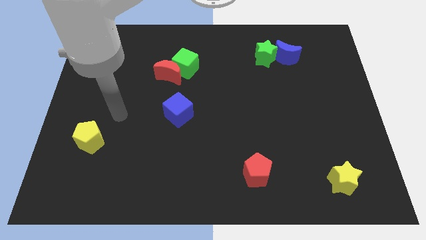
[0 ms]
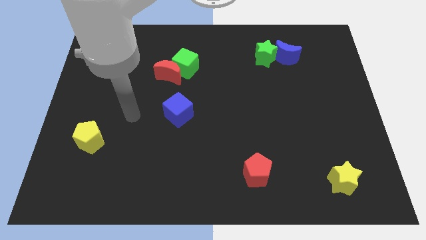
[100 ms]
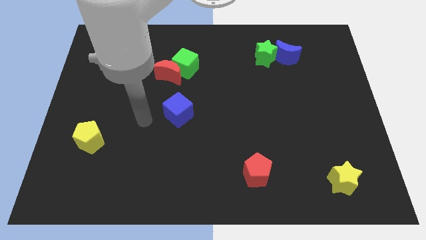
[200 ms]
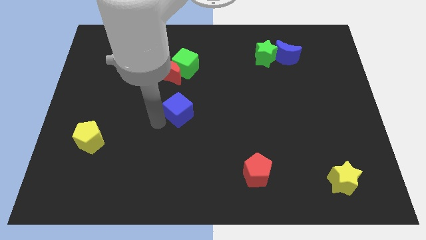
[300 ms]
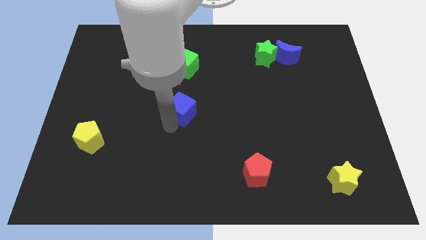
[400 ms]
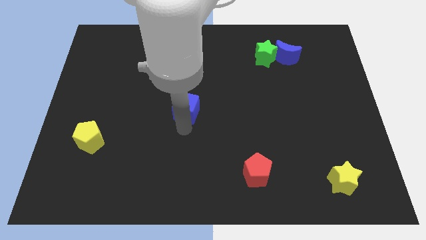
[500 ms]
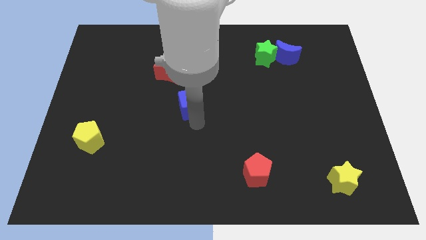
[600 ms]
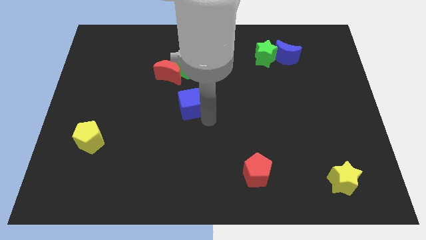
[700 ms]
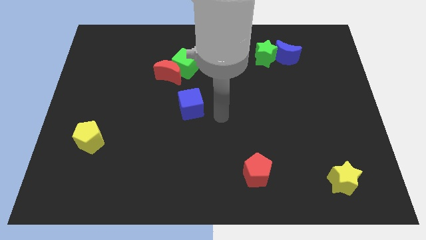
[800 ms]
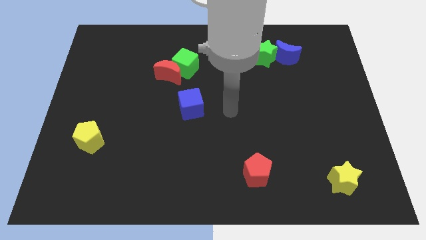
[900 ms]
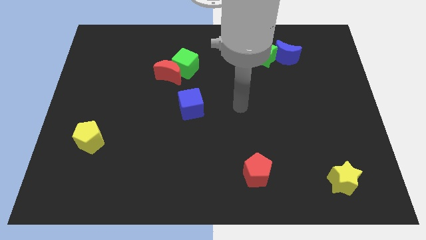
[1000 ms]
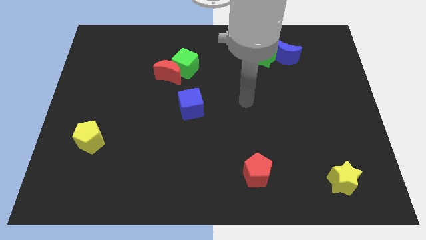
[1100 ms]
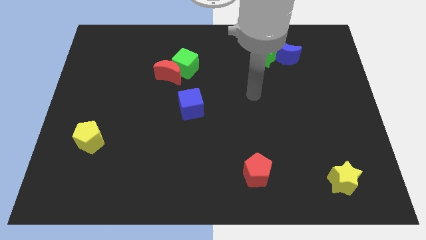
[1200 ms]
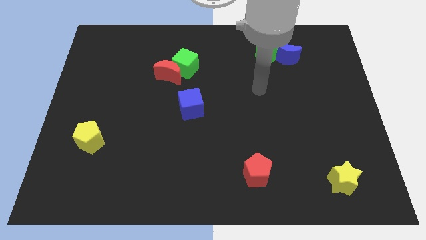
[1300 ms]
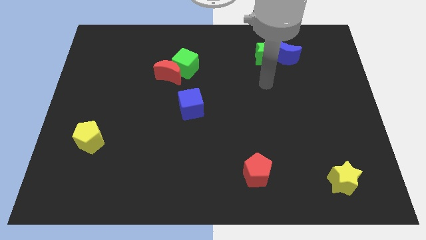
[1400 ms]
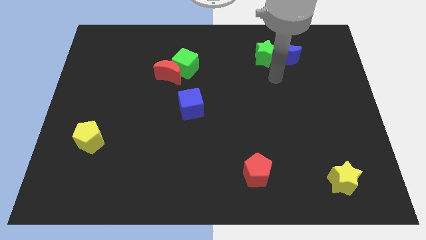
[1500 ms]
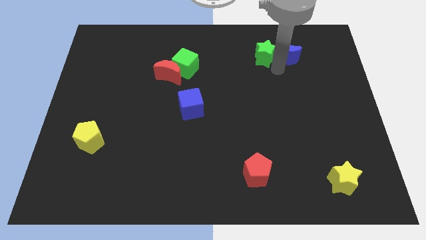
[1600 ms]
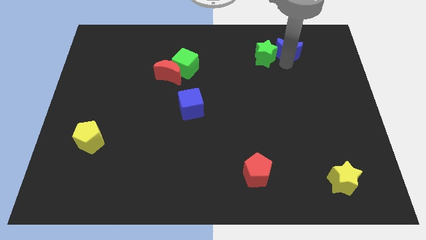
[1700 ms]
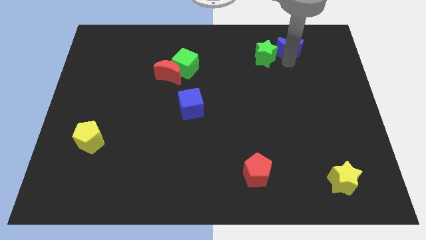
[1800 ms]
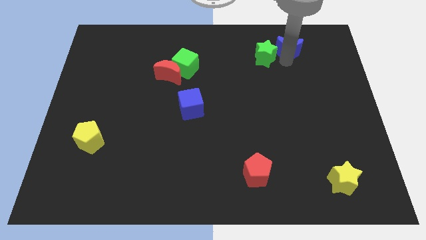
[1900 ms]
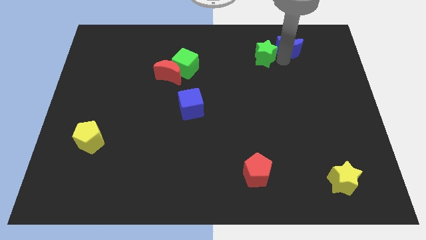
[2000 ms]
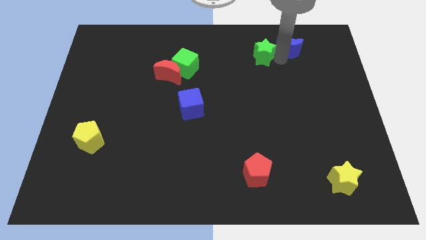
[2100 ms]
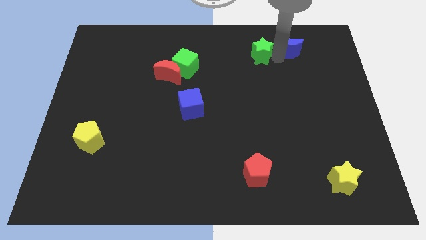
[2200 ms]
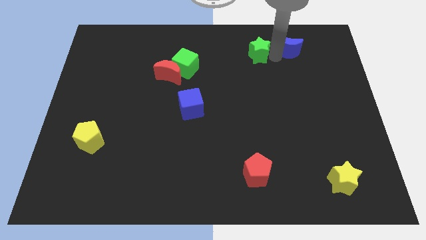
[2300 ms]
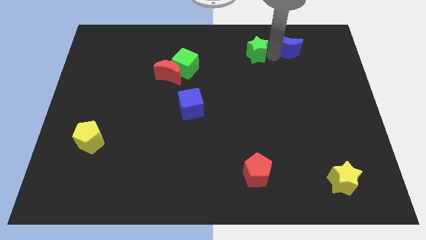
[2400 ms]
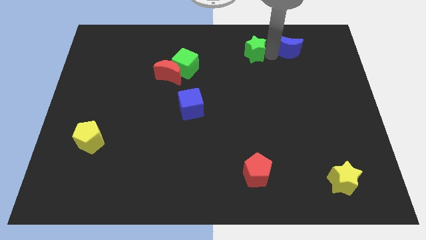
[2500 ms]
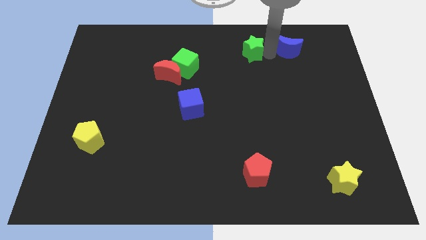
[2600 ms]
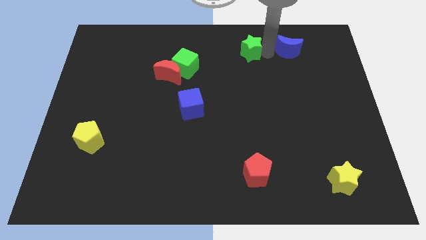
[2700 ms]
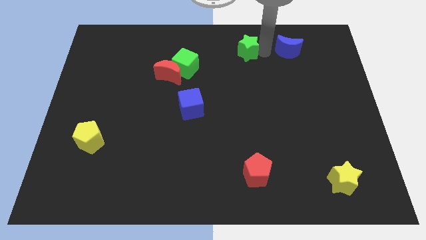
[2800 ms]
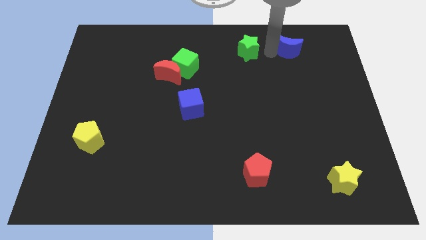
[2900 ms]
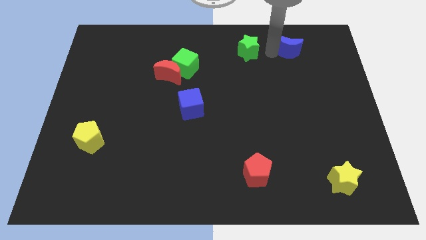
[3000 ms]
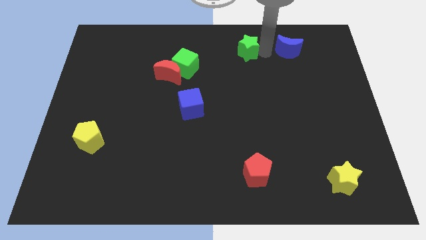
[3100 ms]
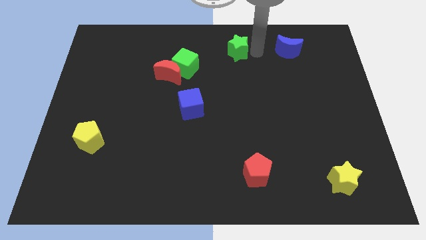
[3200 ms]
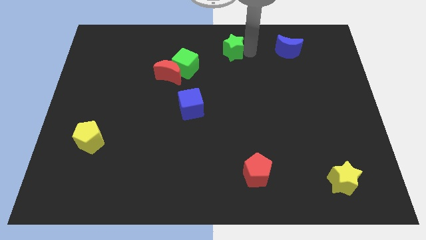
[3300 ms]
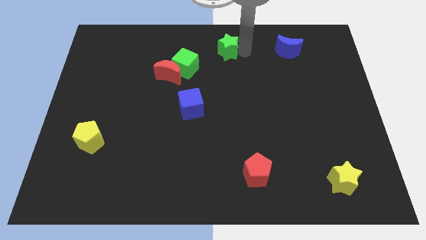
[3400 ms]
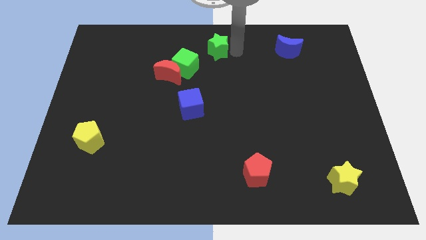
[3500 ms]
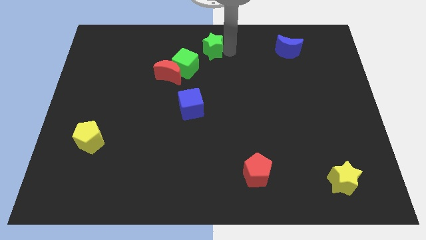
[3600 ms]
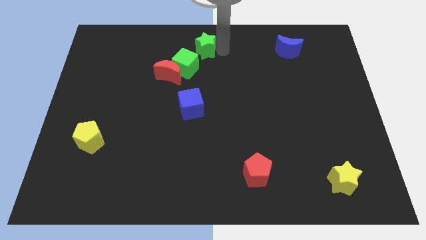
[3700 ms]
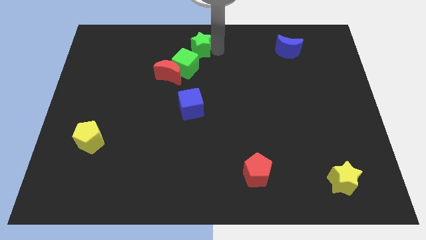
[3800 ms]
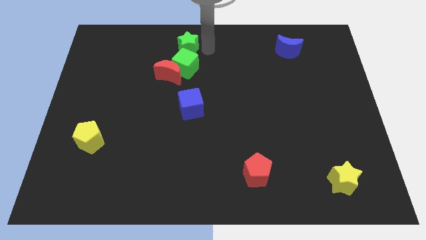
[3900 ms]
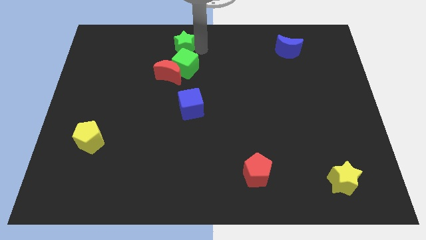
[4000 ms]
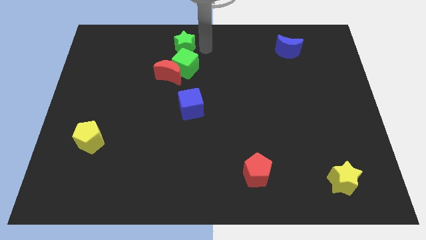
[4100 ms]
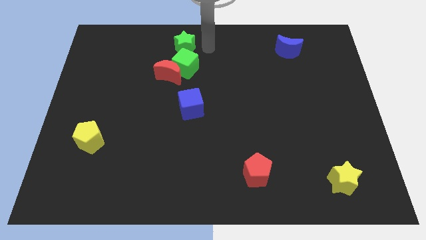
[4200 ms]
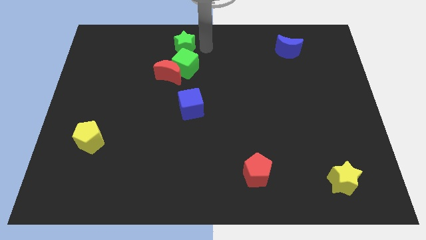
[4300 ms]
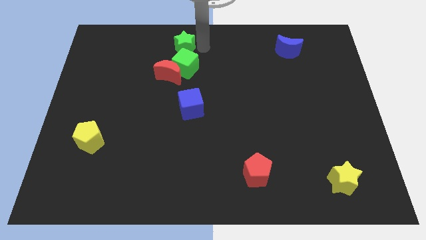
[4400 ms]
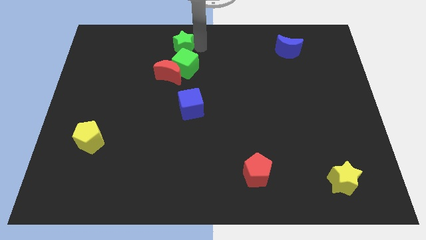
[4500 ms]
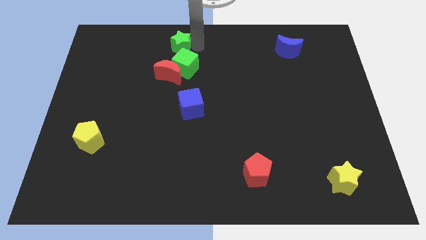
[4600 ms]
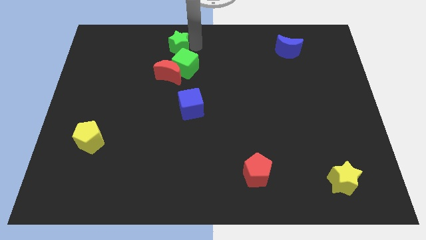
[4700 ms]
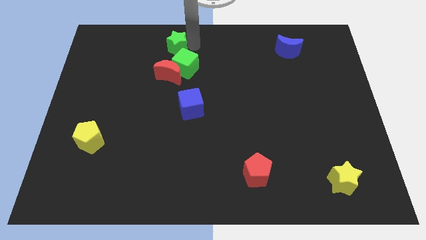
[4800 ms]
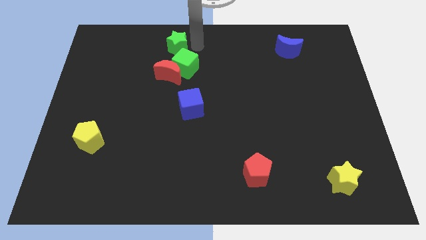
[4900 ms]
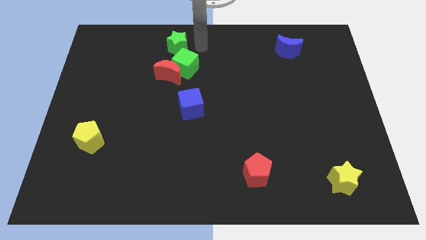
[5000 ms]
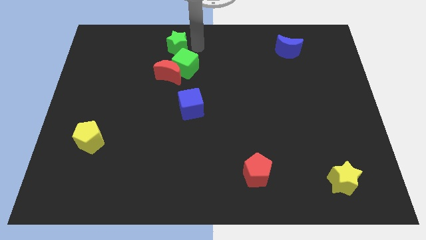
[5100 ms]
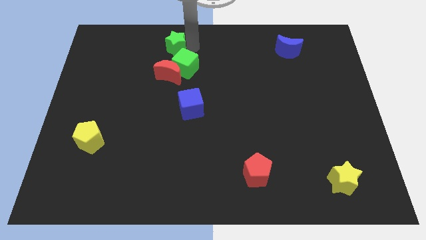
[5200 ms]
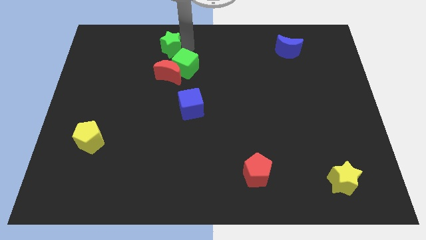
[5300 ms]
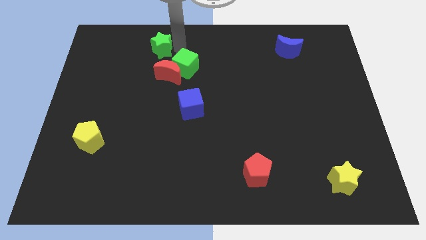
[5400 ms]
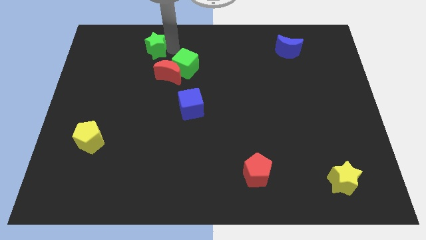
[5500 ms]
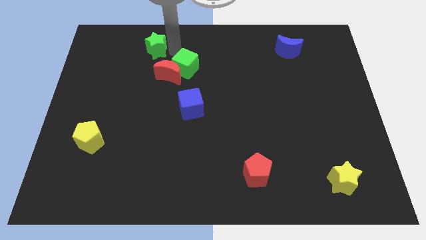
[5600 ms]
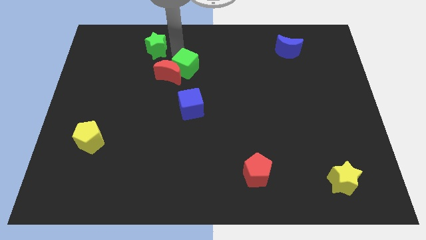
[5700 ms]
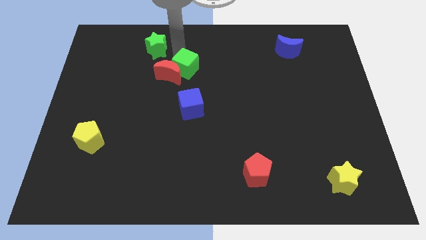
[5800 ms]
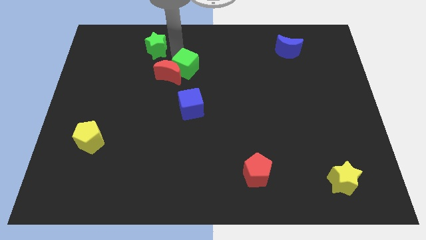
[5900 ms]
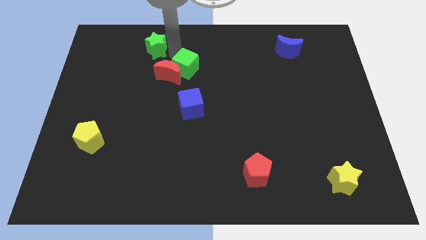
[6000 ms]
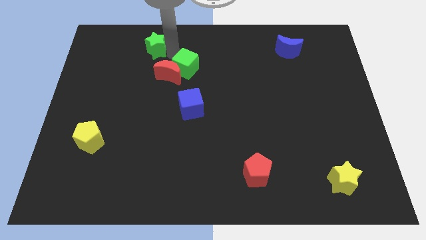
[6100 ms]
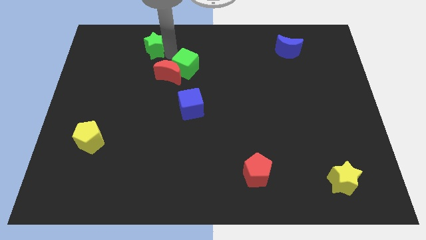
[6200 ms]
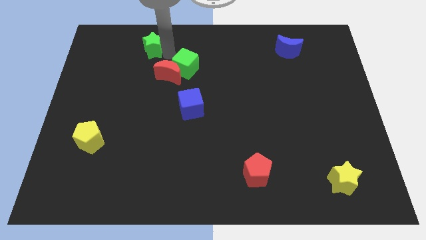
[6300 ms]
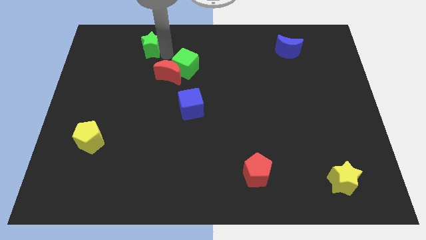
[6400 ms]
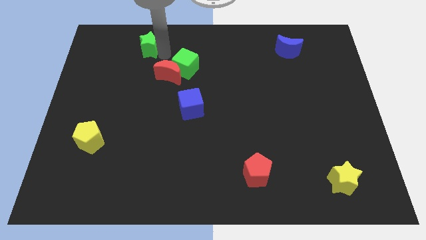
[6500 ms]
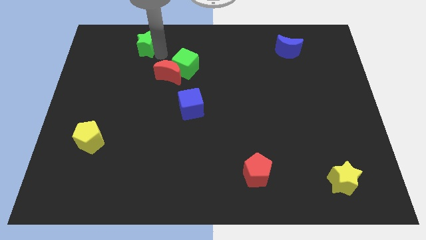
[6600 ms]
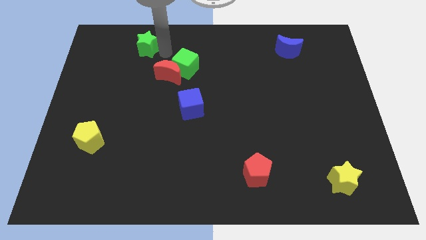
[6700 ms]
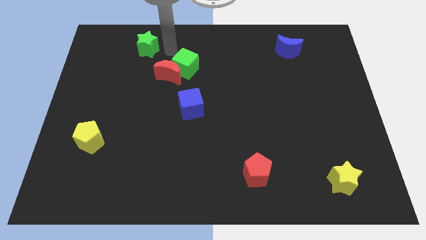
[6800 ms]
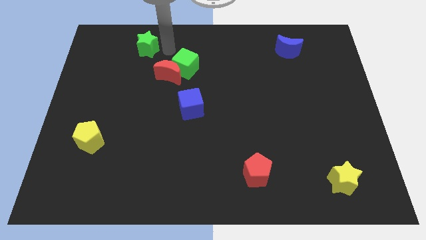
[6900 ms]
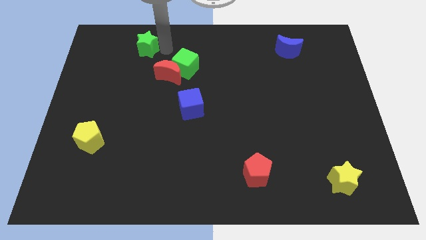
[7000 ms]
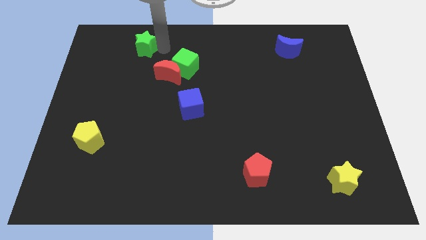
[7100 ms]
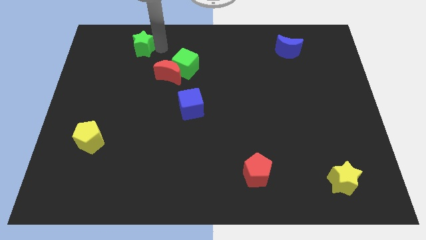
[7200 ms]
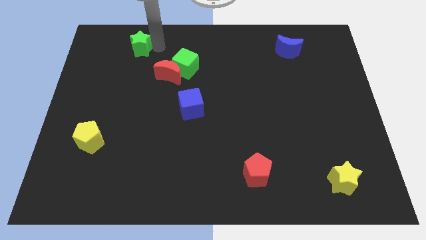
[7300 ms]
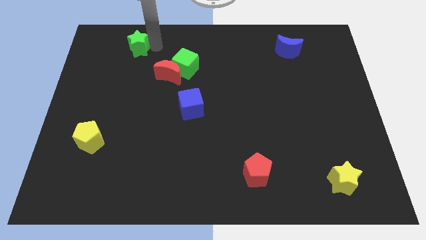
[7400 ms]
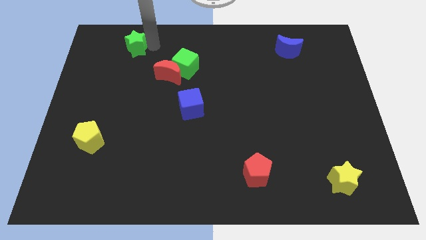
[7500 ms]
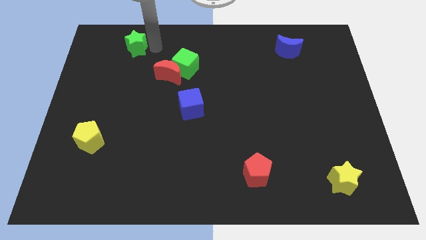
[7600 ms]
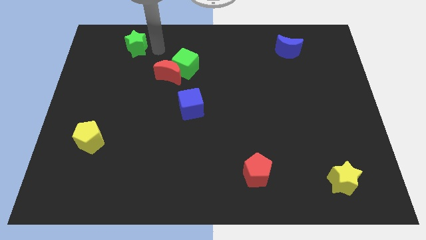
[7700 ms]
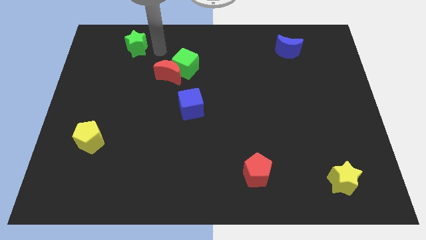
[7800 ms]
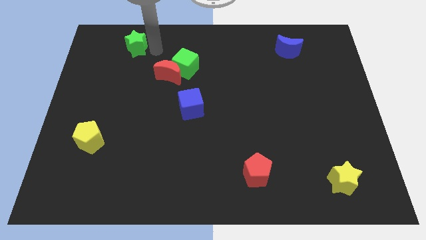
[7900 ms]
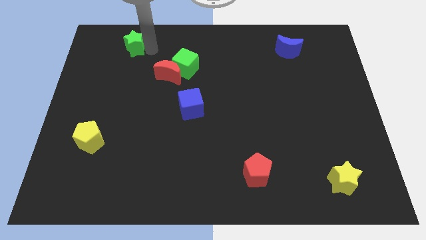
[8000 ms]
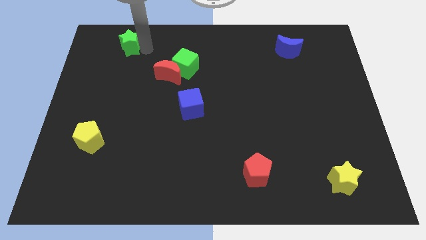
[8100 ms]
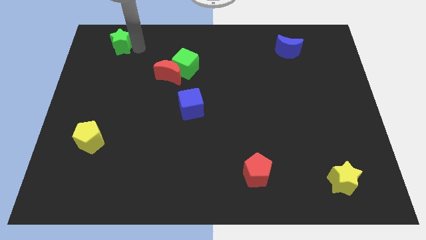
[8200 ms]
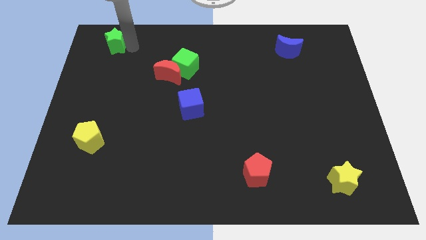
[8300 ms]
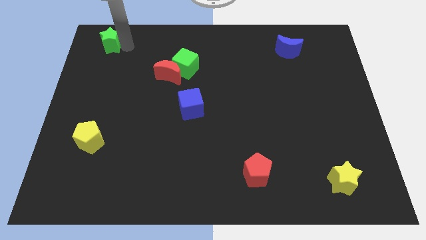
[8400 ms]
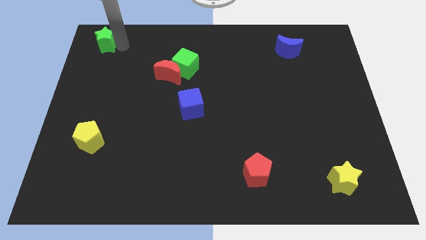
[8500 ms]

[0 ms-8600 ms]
move the green star to the top left corner
